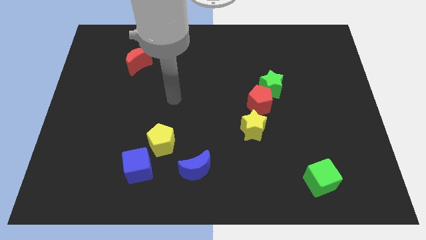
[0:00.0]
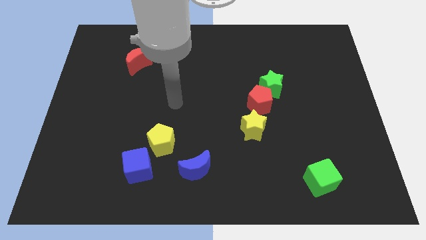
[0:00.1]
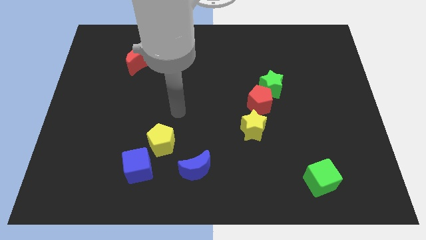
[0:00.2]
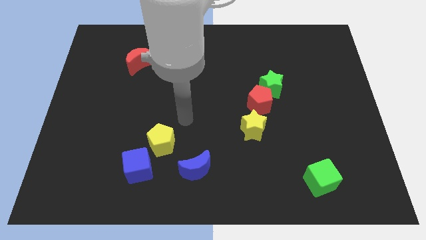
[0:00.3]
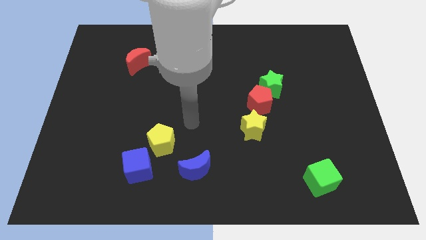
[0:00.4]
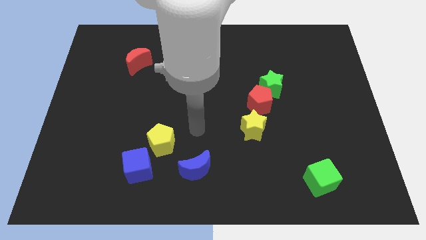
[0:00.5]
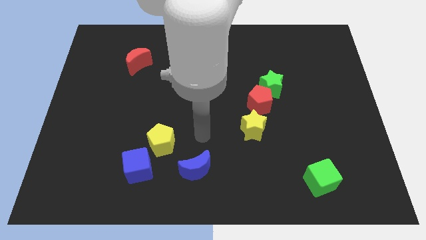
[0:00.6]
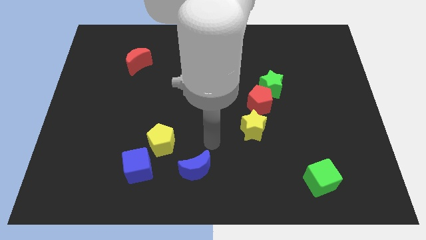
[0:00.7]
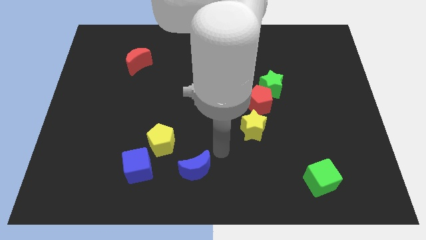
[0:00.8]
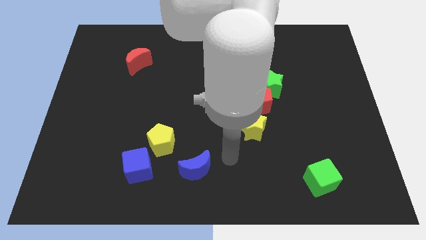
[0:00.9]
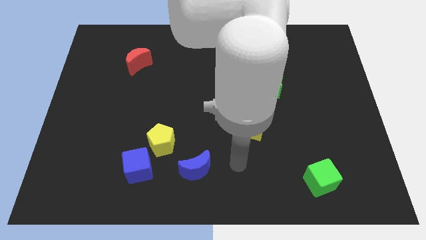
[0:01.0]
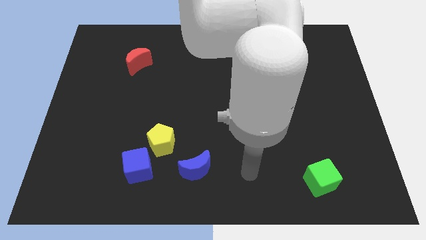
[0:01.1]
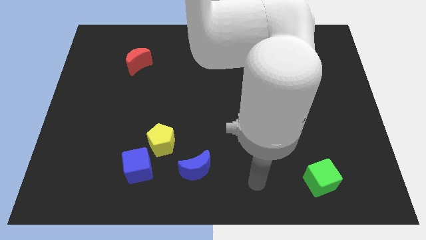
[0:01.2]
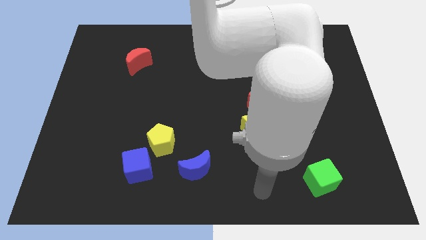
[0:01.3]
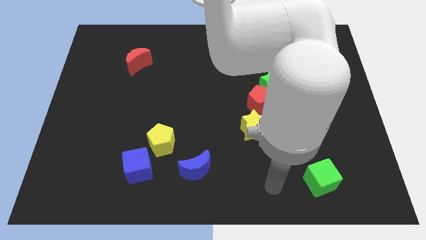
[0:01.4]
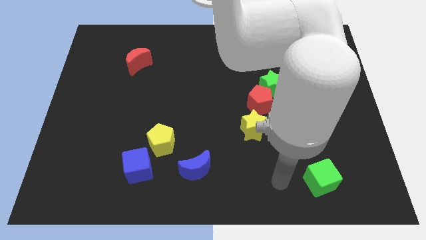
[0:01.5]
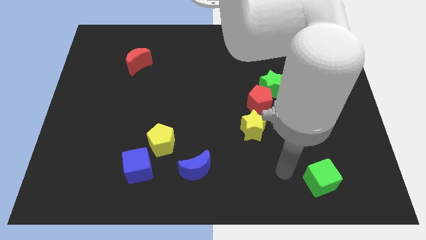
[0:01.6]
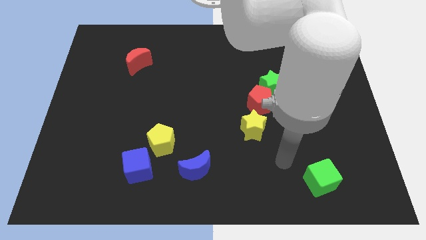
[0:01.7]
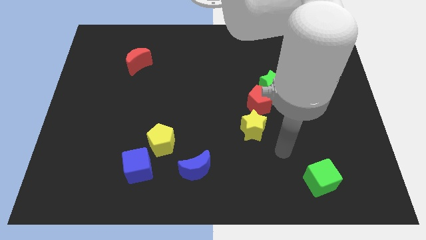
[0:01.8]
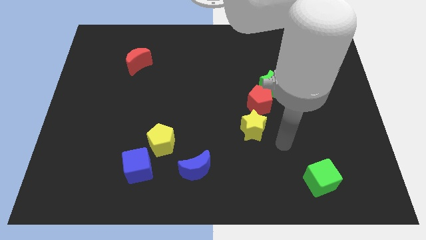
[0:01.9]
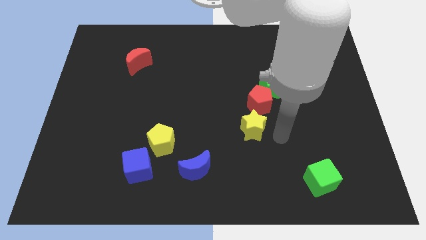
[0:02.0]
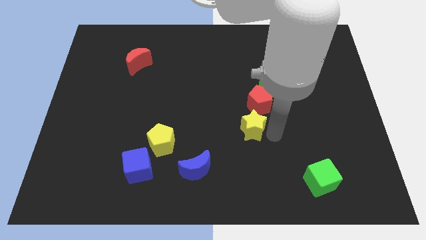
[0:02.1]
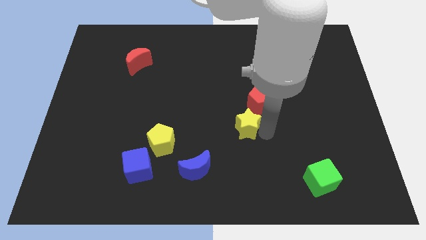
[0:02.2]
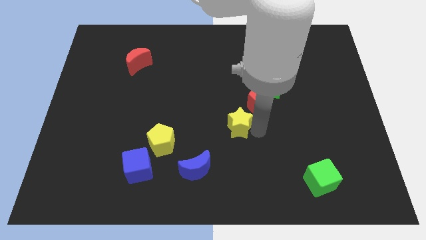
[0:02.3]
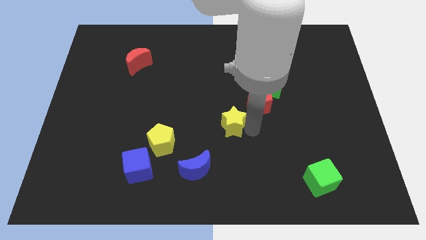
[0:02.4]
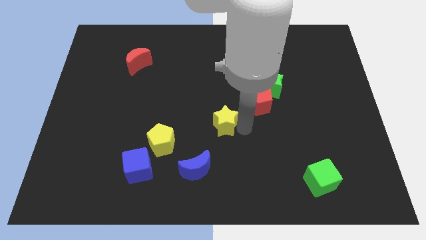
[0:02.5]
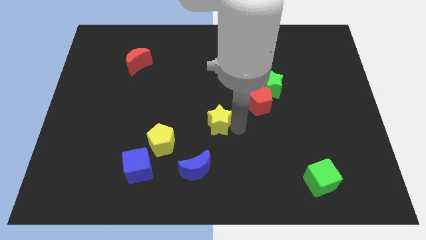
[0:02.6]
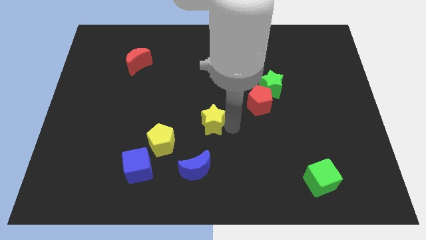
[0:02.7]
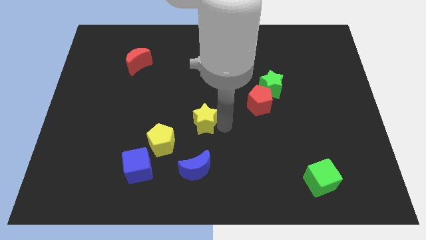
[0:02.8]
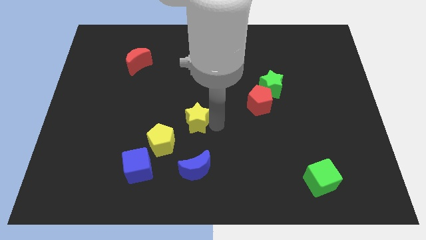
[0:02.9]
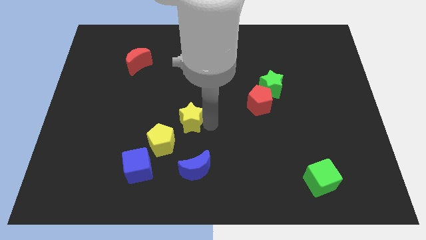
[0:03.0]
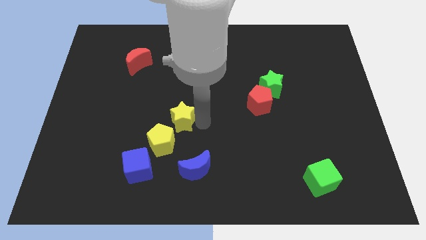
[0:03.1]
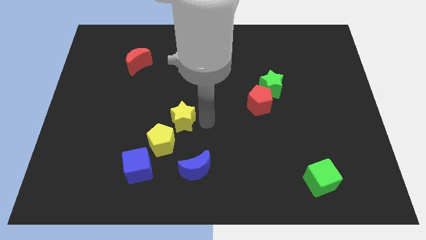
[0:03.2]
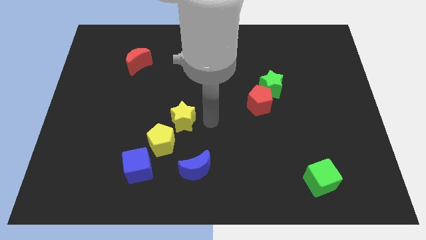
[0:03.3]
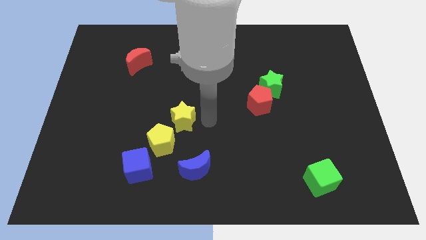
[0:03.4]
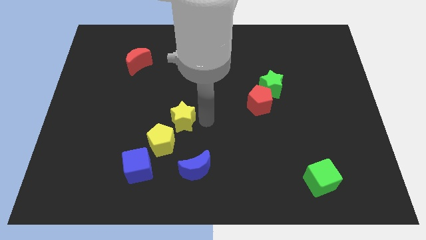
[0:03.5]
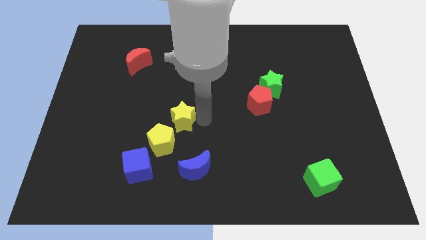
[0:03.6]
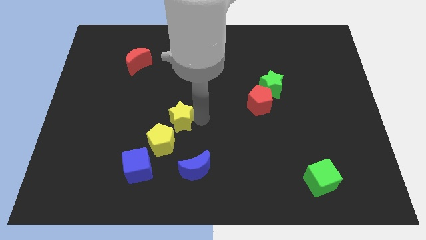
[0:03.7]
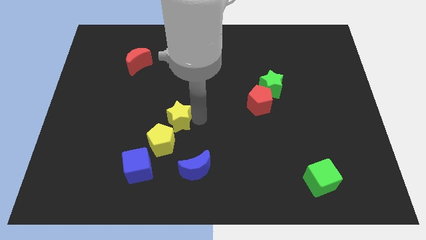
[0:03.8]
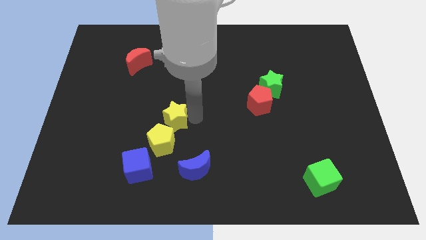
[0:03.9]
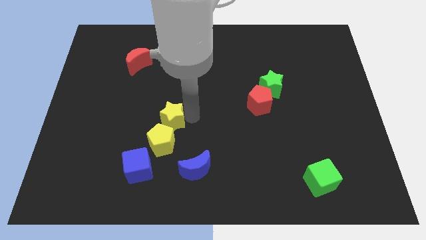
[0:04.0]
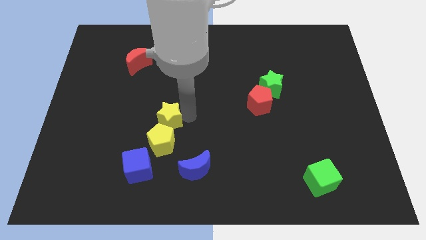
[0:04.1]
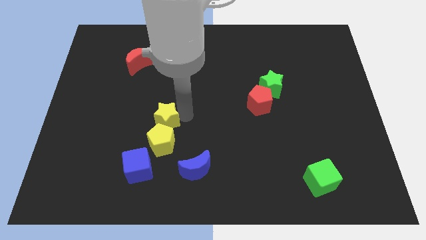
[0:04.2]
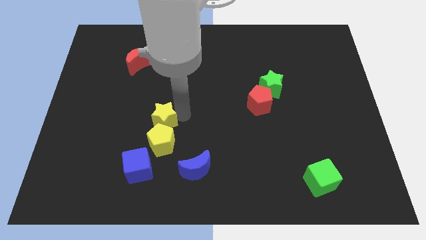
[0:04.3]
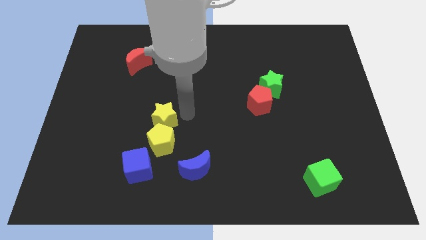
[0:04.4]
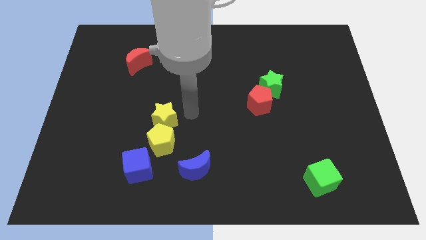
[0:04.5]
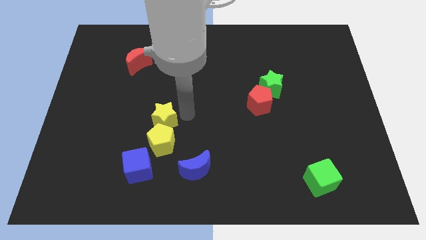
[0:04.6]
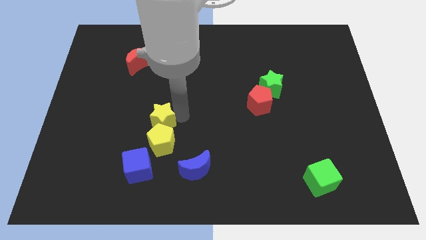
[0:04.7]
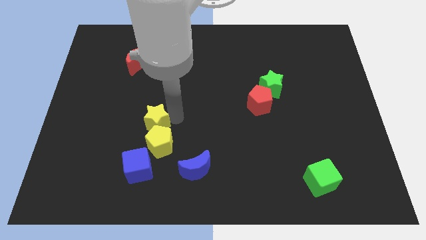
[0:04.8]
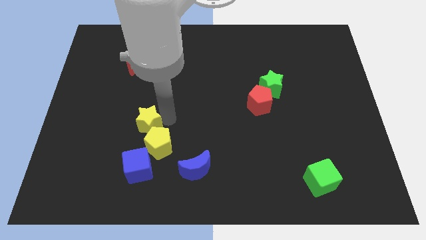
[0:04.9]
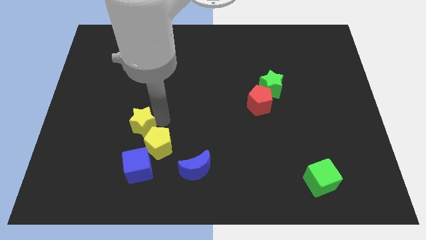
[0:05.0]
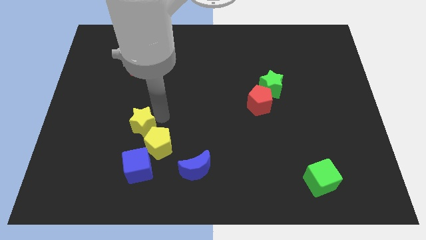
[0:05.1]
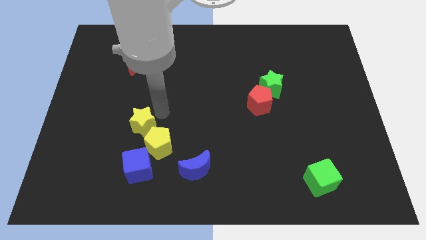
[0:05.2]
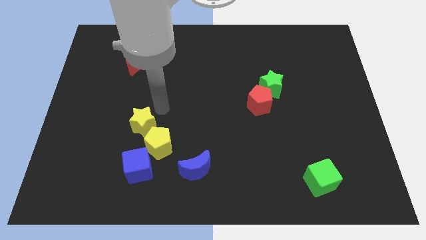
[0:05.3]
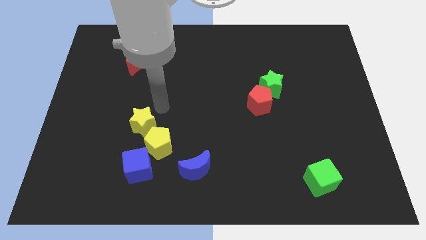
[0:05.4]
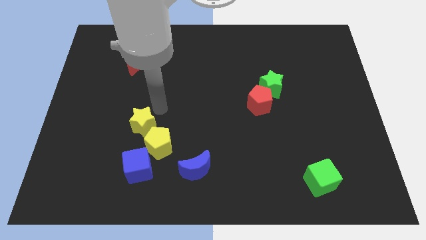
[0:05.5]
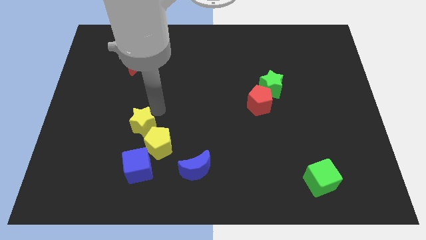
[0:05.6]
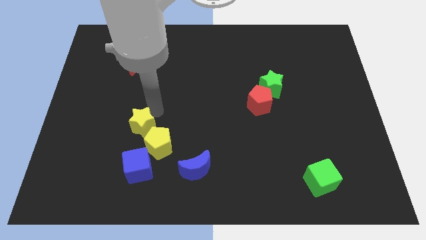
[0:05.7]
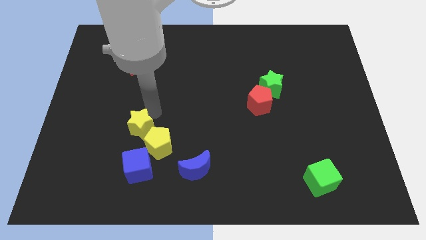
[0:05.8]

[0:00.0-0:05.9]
push the yellow star left of the yellow pentagon

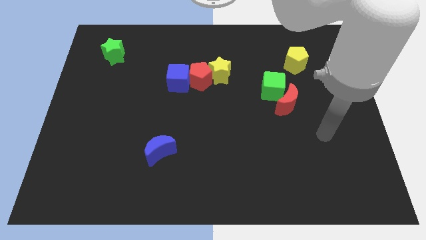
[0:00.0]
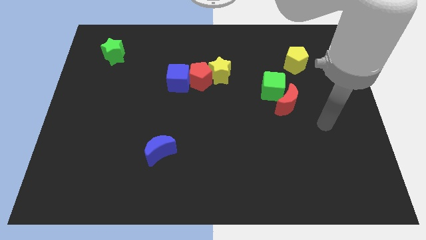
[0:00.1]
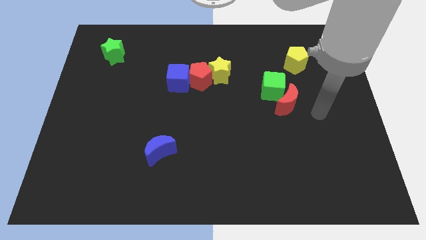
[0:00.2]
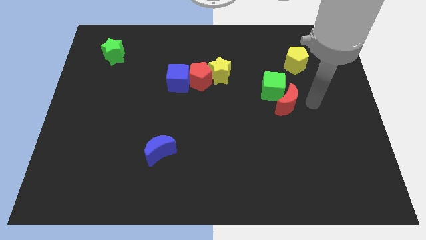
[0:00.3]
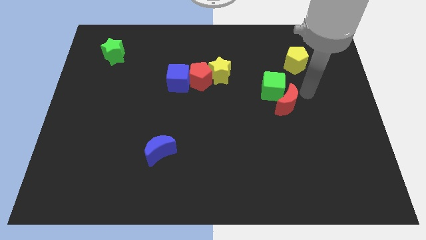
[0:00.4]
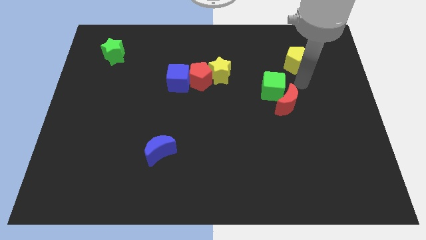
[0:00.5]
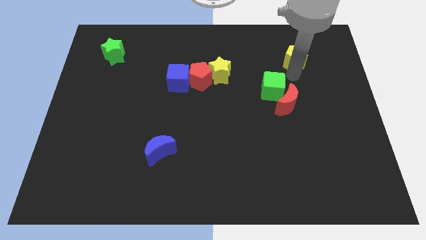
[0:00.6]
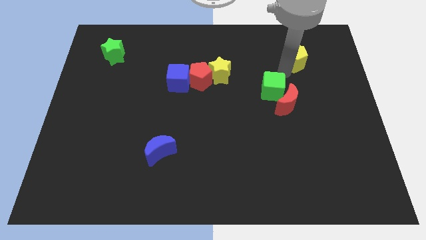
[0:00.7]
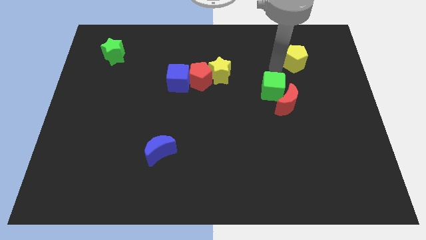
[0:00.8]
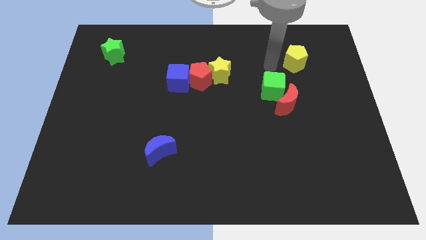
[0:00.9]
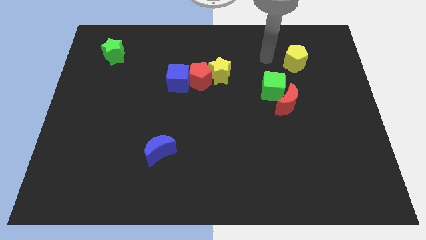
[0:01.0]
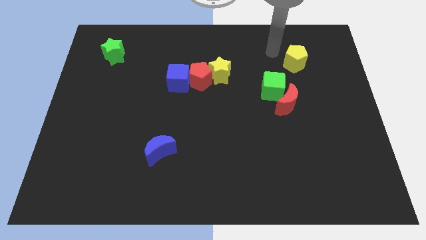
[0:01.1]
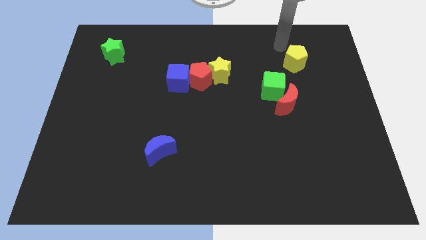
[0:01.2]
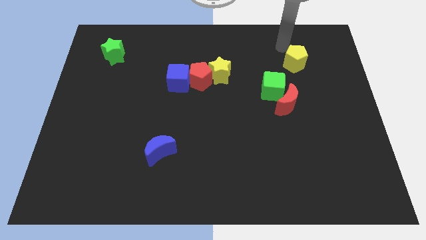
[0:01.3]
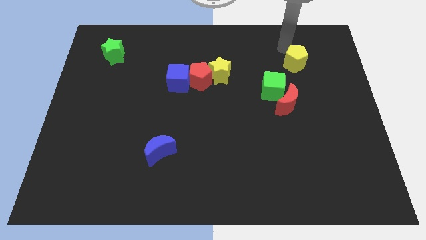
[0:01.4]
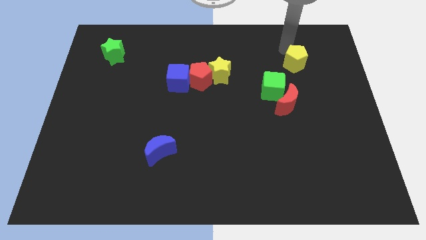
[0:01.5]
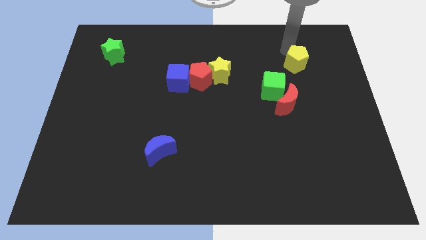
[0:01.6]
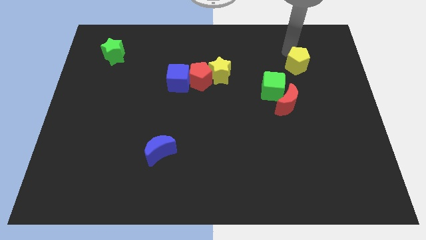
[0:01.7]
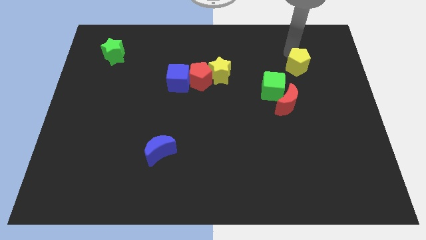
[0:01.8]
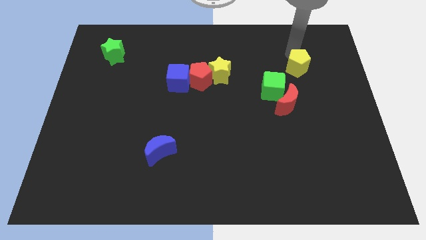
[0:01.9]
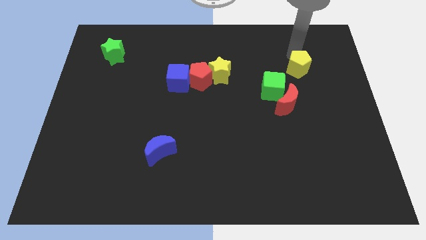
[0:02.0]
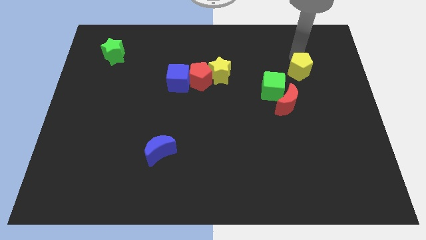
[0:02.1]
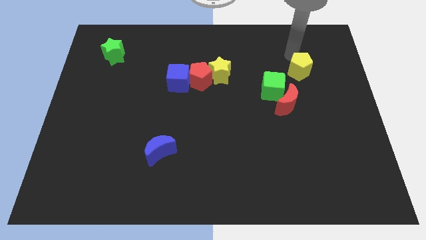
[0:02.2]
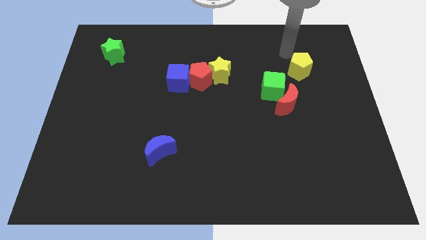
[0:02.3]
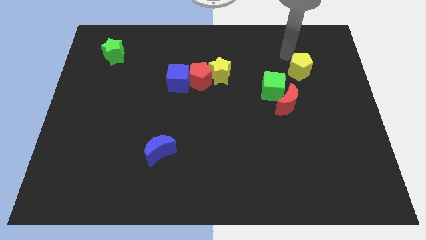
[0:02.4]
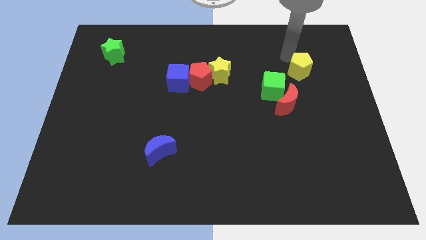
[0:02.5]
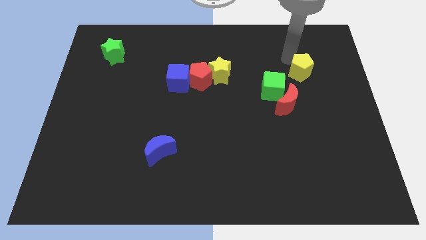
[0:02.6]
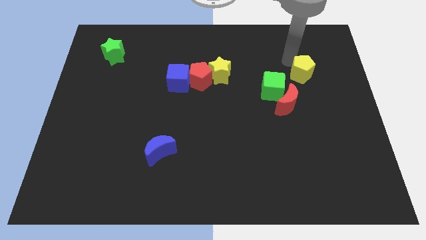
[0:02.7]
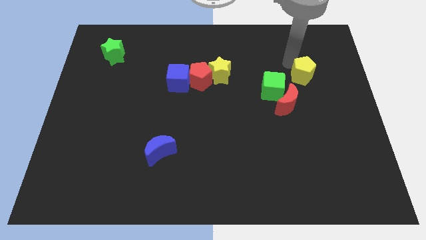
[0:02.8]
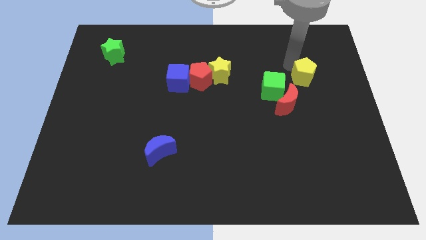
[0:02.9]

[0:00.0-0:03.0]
put the yellow pentagon just right of the green cube
